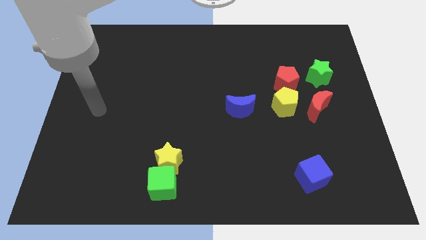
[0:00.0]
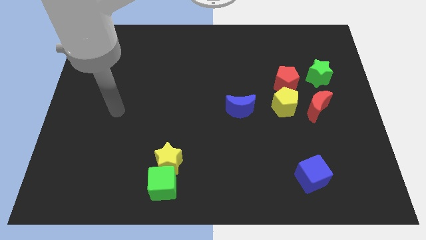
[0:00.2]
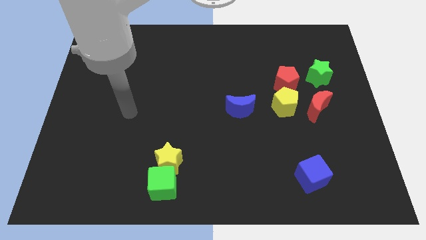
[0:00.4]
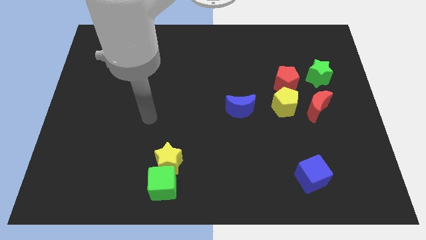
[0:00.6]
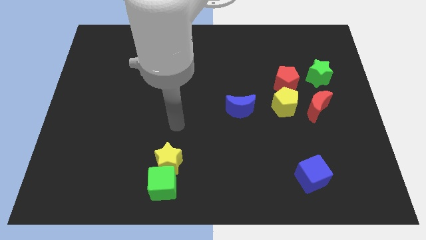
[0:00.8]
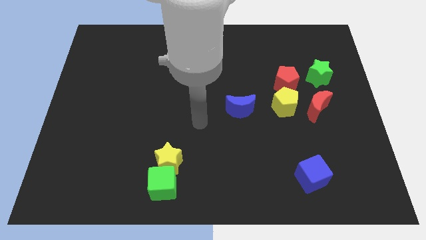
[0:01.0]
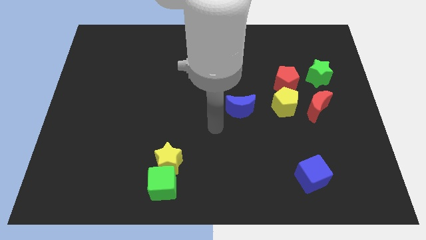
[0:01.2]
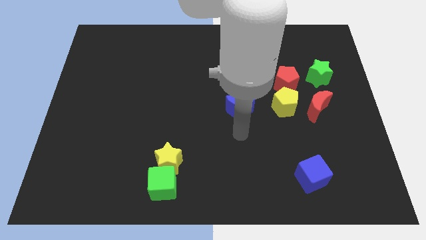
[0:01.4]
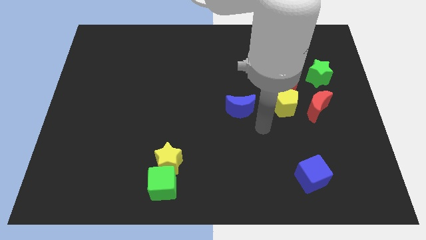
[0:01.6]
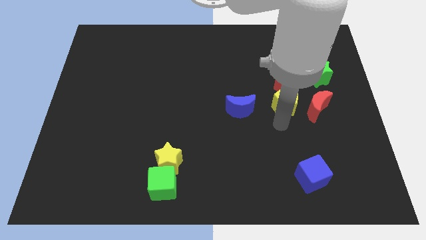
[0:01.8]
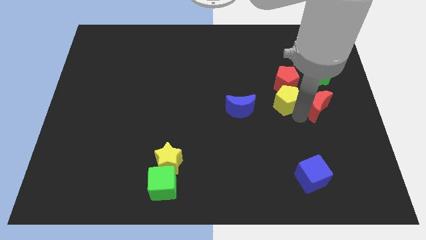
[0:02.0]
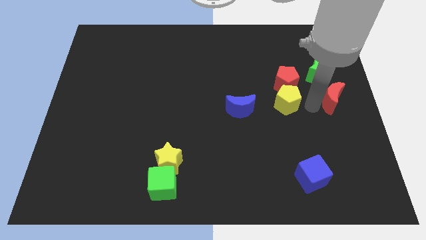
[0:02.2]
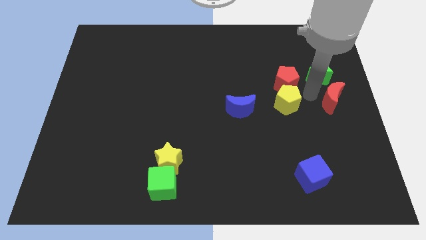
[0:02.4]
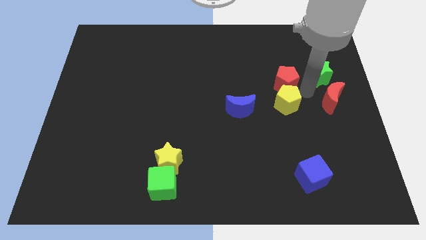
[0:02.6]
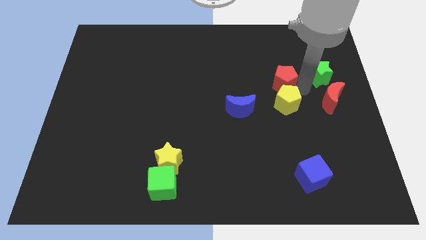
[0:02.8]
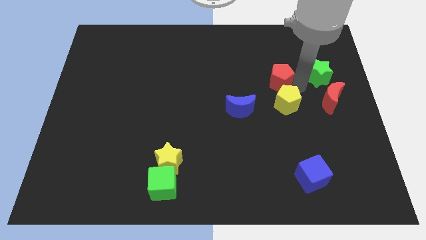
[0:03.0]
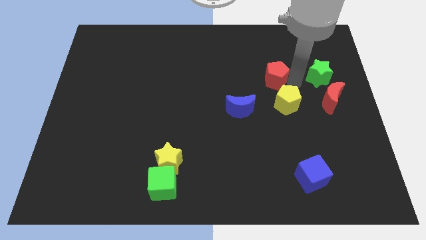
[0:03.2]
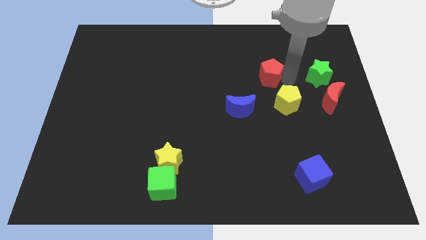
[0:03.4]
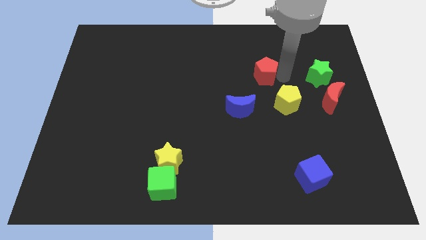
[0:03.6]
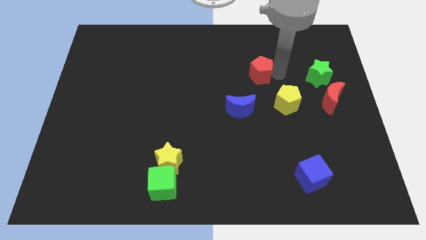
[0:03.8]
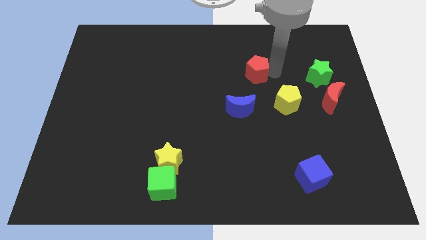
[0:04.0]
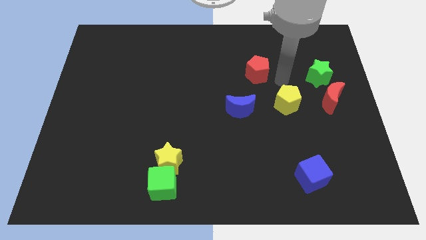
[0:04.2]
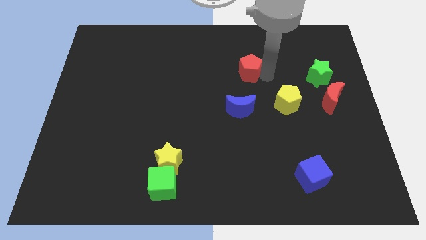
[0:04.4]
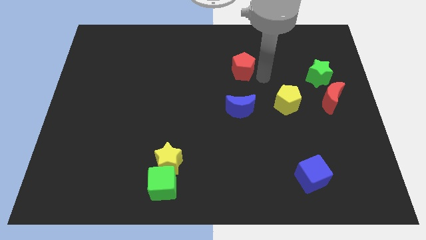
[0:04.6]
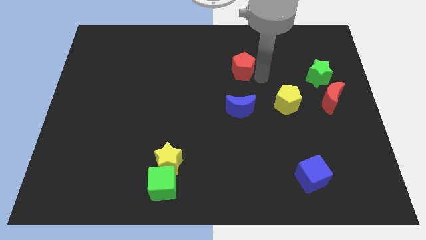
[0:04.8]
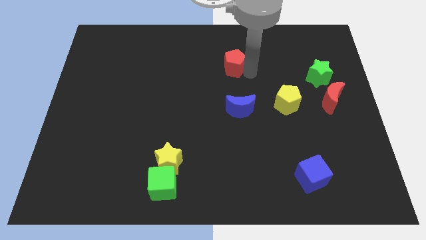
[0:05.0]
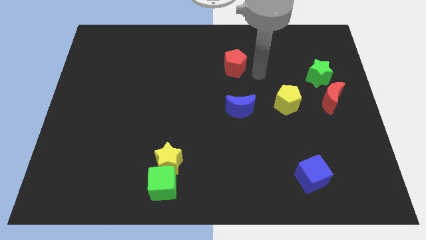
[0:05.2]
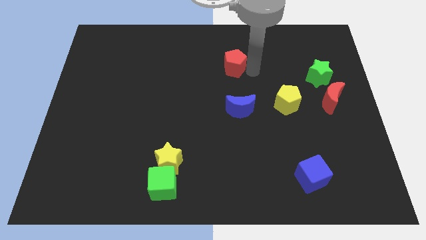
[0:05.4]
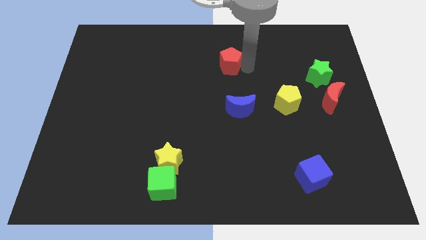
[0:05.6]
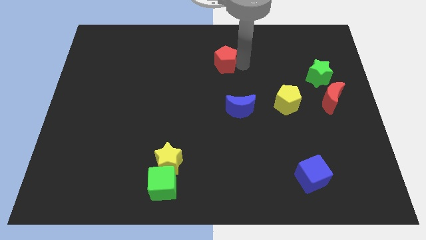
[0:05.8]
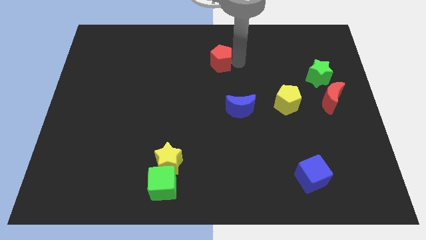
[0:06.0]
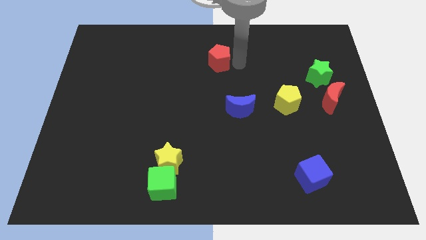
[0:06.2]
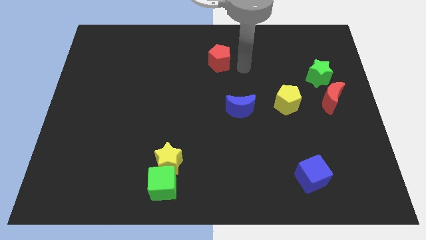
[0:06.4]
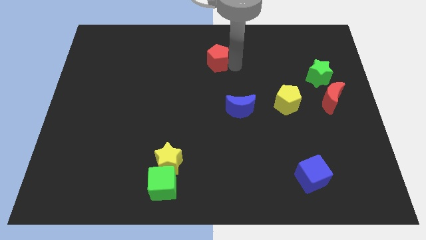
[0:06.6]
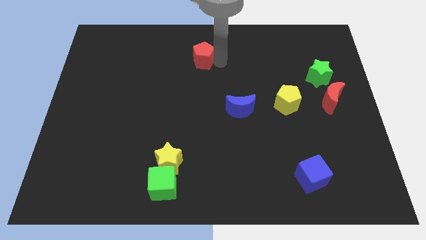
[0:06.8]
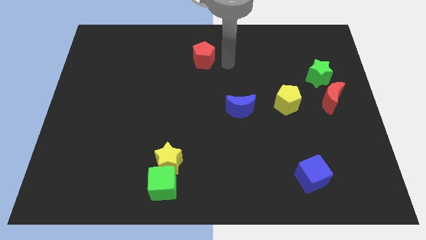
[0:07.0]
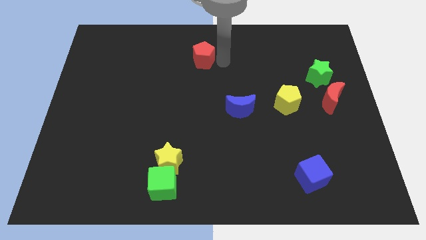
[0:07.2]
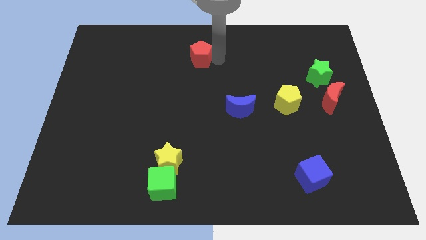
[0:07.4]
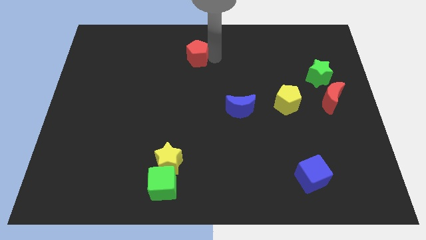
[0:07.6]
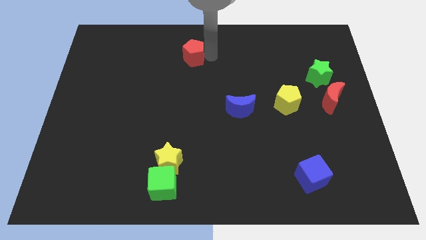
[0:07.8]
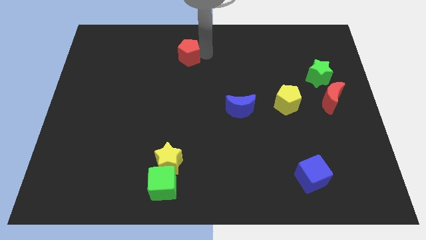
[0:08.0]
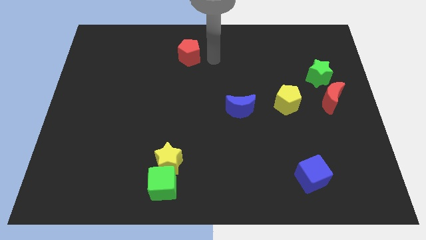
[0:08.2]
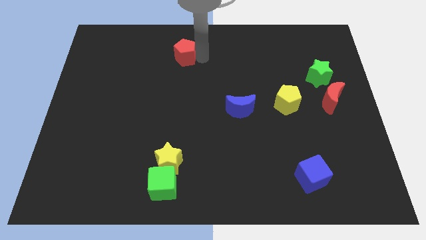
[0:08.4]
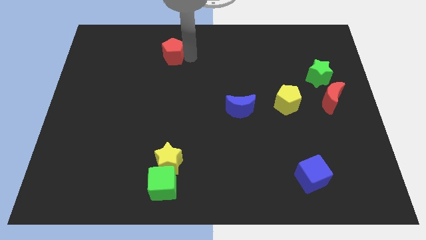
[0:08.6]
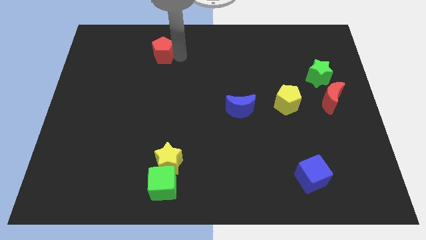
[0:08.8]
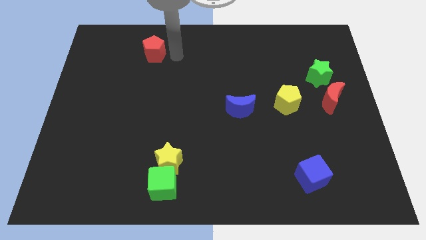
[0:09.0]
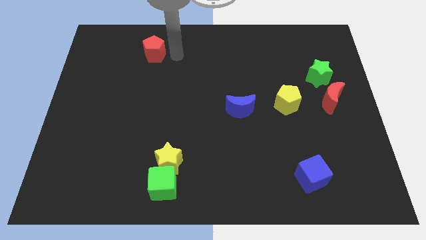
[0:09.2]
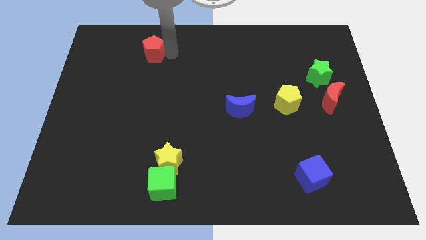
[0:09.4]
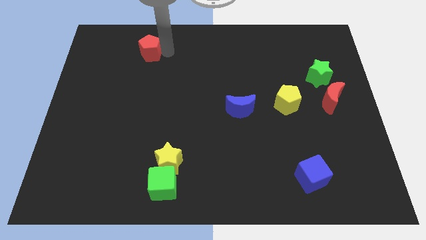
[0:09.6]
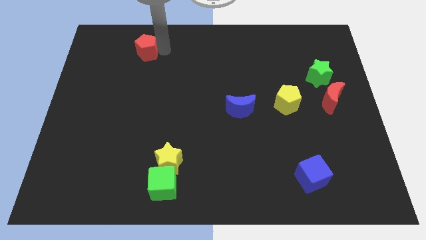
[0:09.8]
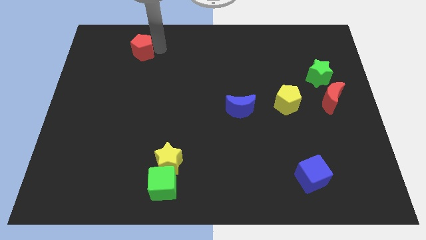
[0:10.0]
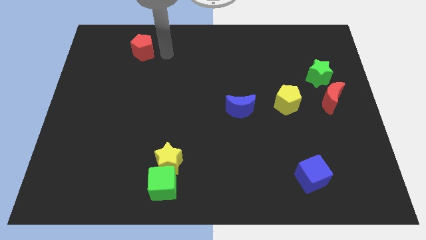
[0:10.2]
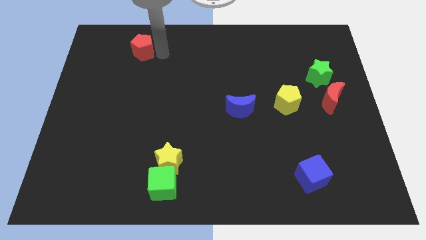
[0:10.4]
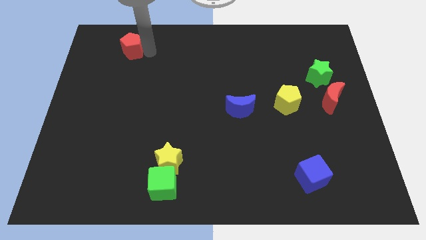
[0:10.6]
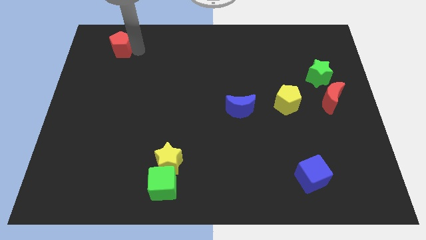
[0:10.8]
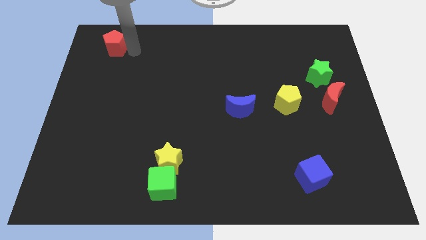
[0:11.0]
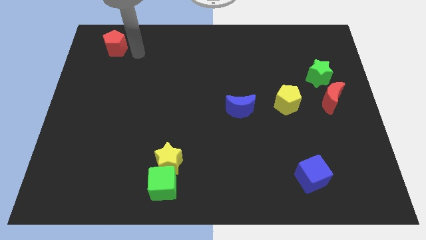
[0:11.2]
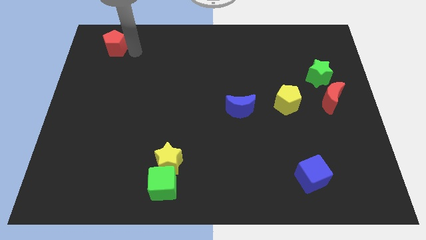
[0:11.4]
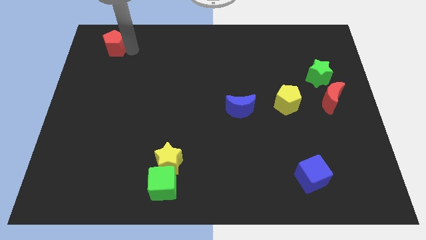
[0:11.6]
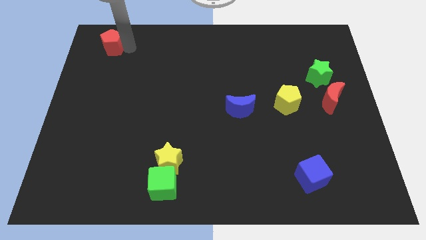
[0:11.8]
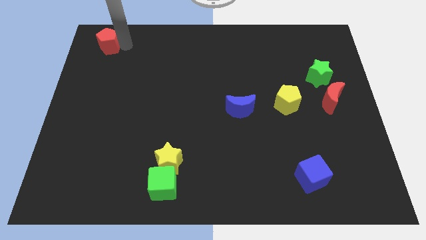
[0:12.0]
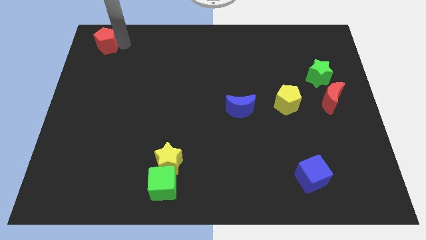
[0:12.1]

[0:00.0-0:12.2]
put the red pentagon to the top left
